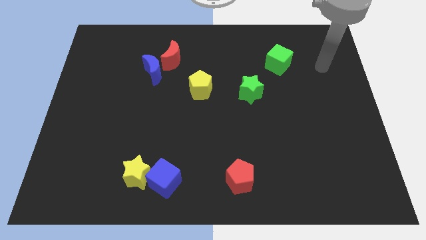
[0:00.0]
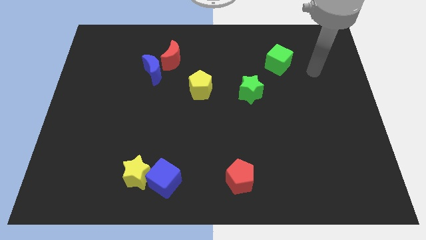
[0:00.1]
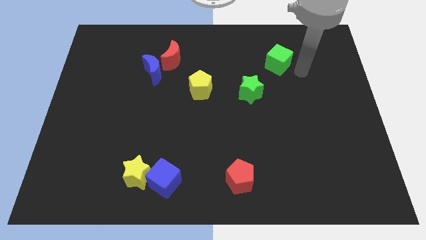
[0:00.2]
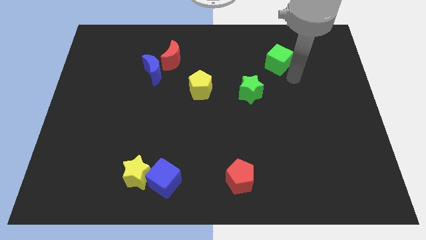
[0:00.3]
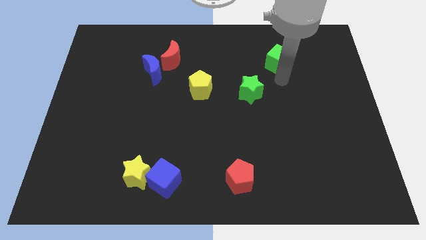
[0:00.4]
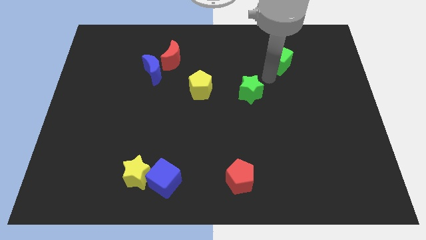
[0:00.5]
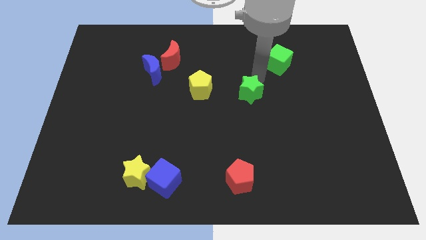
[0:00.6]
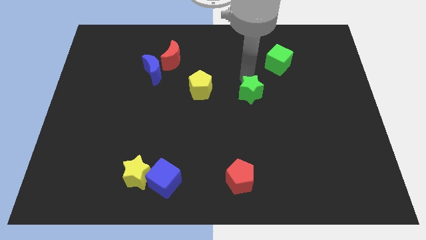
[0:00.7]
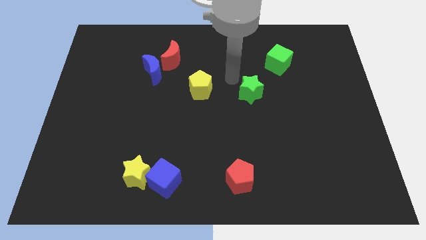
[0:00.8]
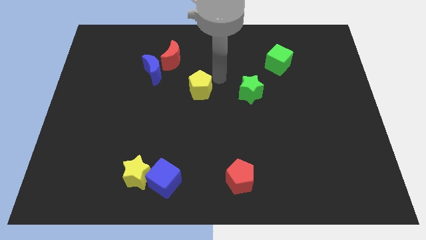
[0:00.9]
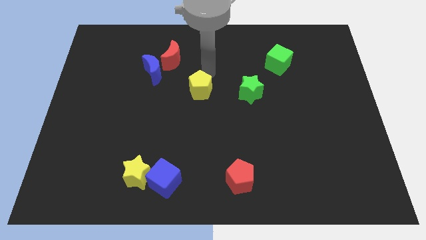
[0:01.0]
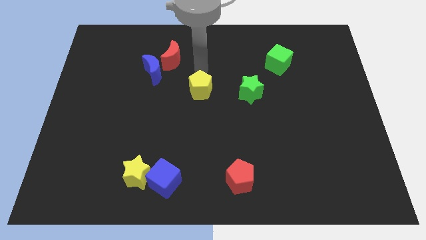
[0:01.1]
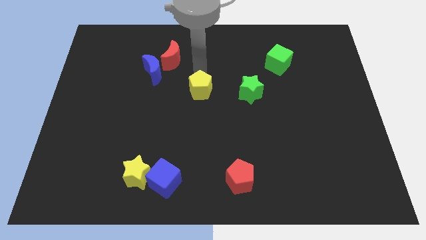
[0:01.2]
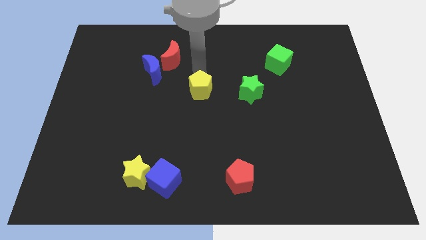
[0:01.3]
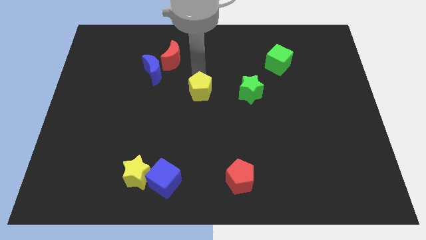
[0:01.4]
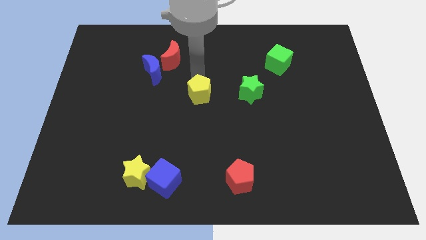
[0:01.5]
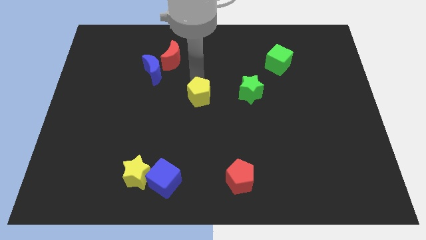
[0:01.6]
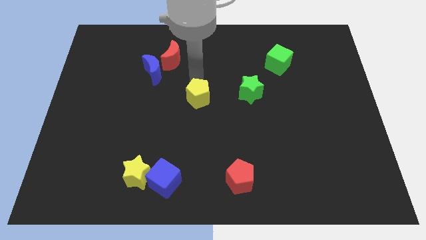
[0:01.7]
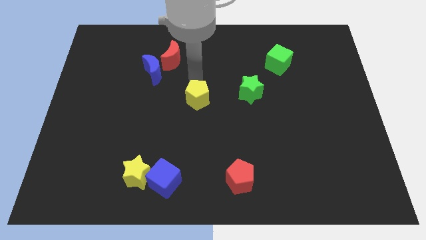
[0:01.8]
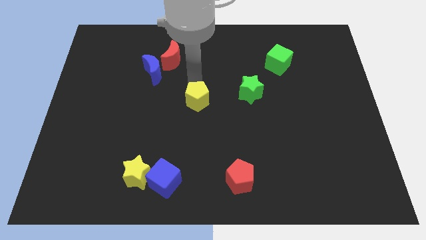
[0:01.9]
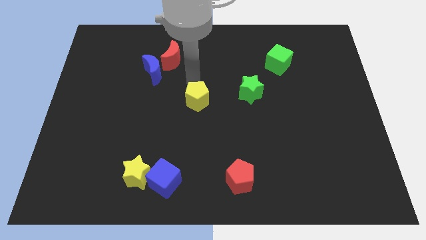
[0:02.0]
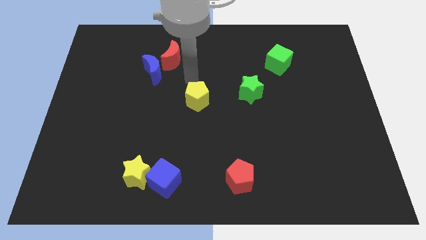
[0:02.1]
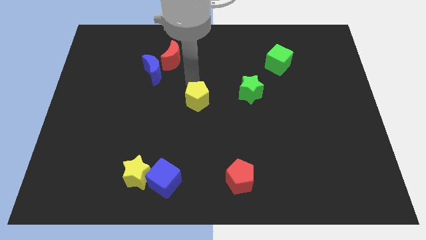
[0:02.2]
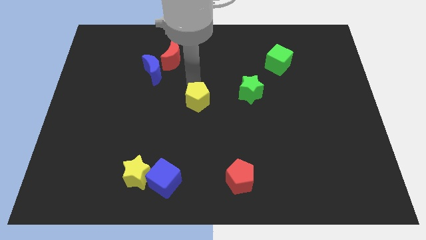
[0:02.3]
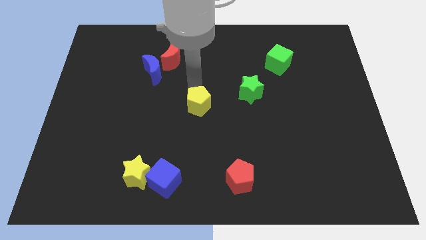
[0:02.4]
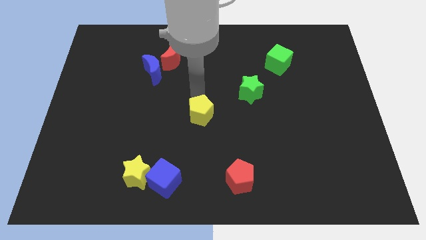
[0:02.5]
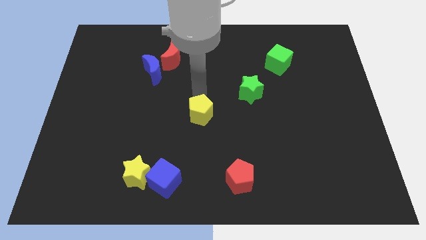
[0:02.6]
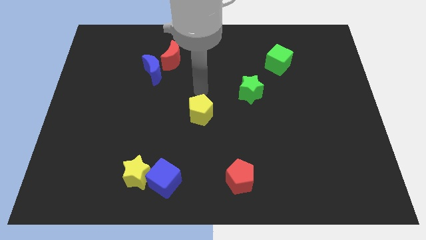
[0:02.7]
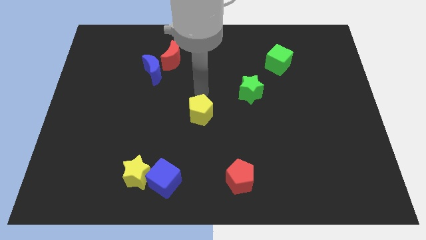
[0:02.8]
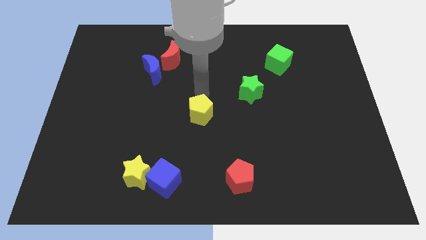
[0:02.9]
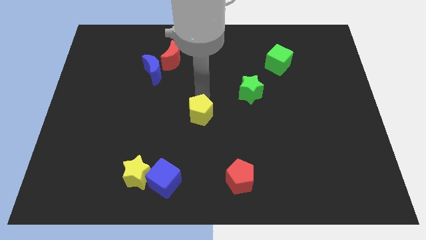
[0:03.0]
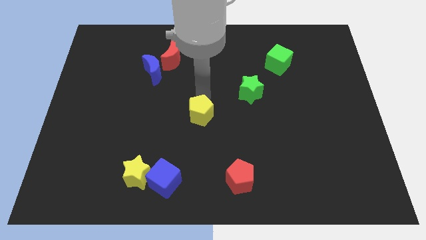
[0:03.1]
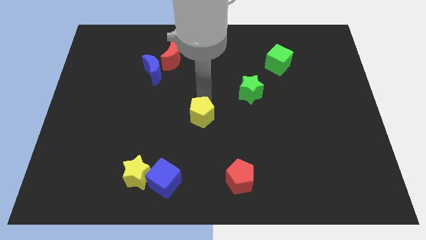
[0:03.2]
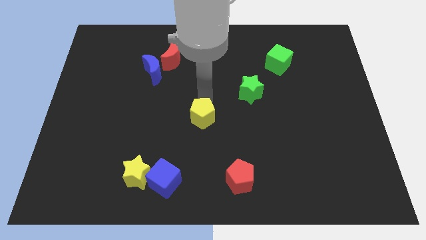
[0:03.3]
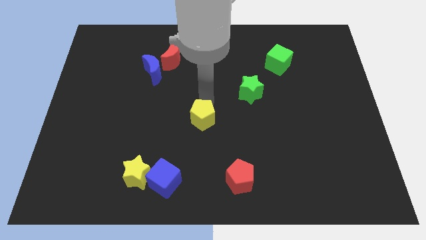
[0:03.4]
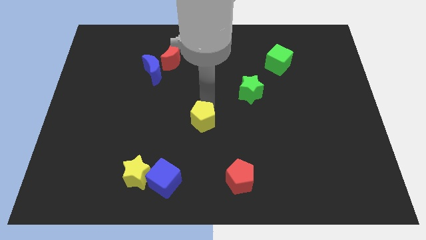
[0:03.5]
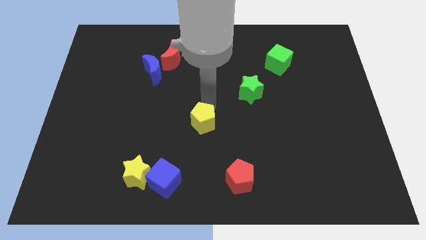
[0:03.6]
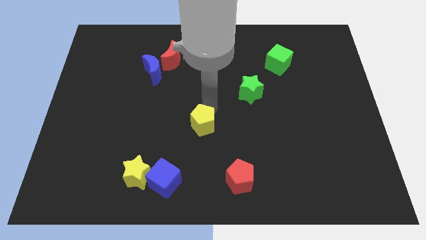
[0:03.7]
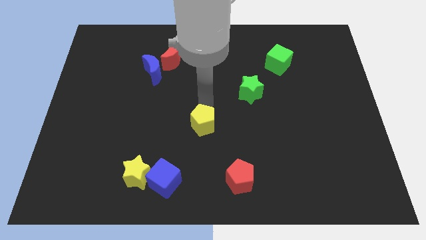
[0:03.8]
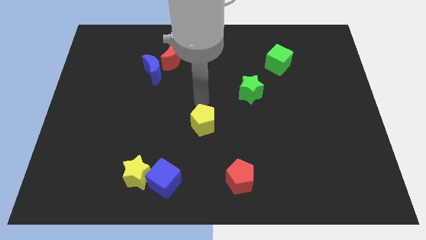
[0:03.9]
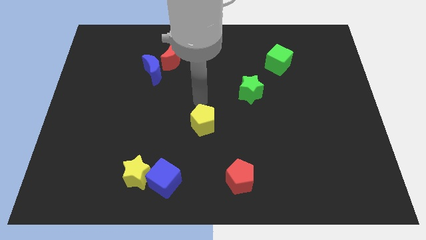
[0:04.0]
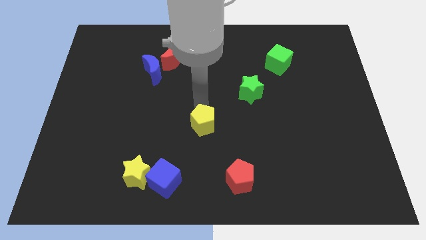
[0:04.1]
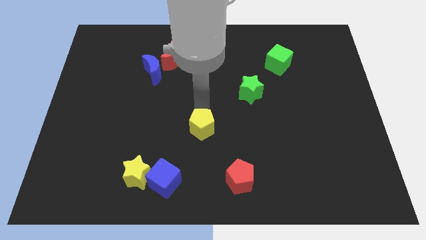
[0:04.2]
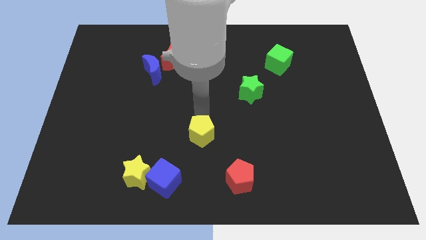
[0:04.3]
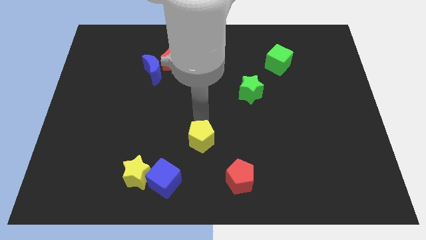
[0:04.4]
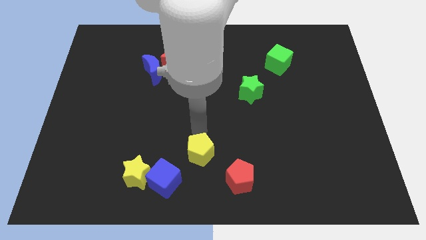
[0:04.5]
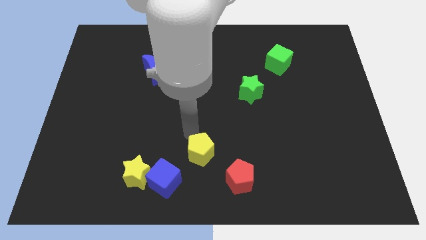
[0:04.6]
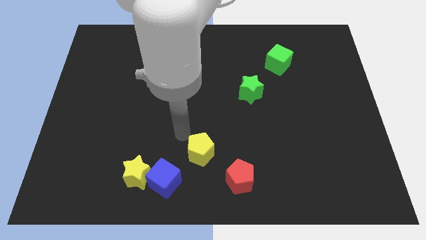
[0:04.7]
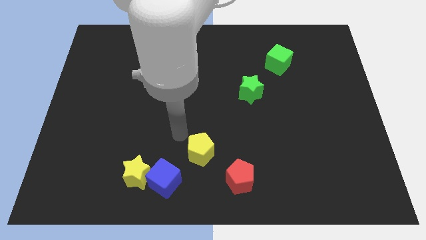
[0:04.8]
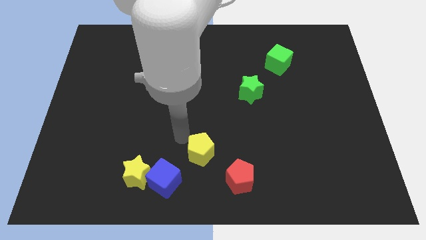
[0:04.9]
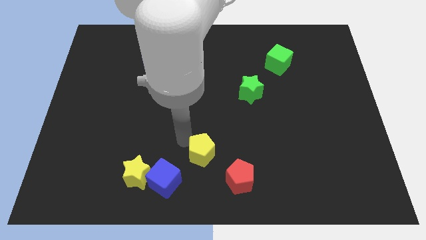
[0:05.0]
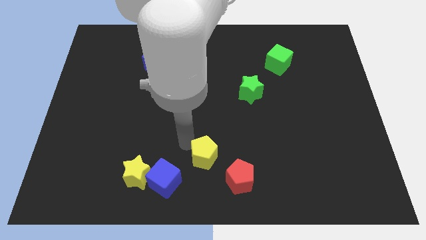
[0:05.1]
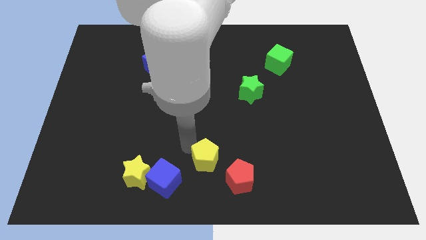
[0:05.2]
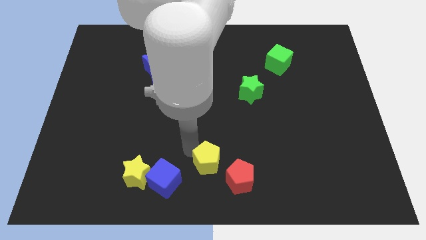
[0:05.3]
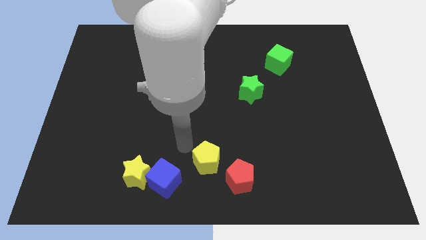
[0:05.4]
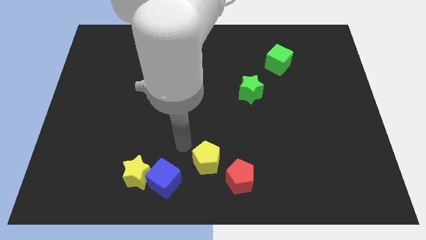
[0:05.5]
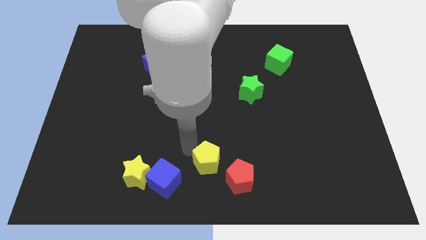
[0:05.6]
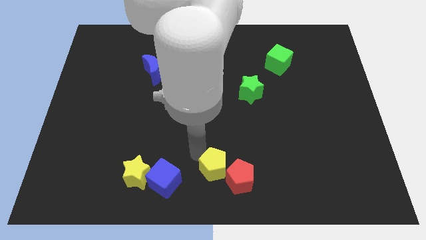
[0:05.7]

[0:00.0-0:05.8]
push the yellow pentagon next to the red pentagon

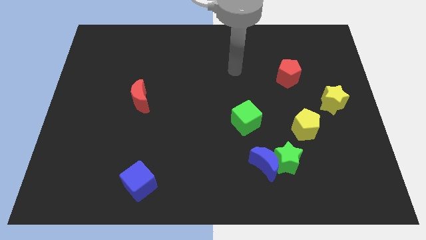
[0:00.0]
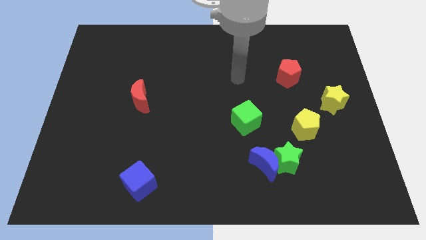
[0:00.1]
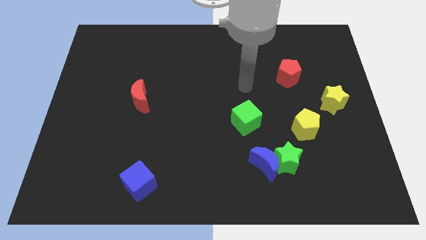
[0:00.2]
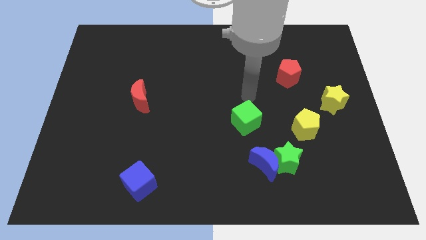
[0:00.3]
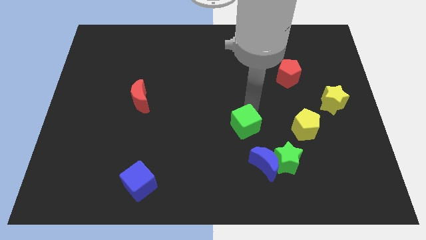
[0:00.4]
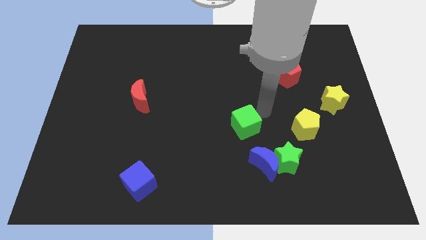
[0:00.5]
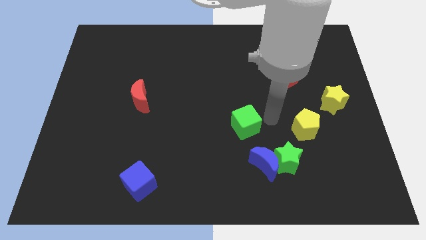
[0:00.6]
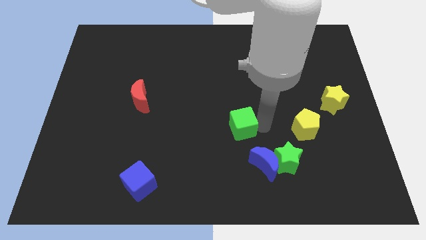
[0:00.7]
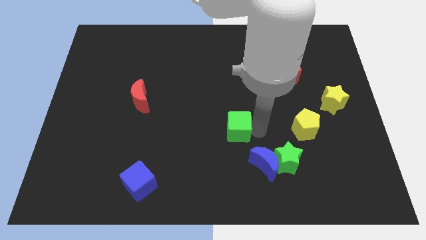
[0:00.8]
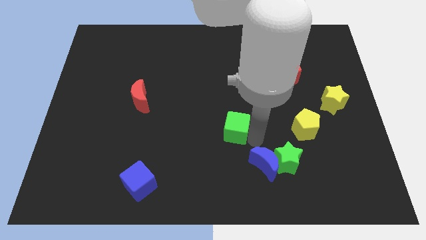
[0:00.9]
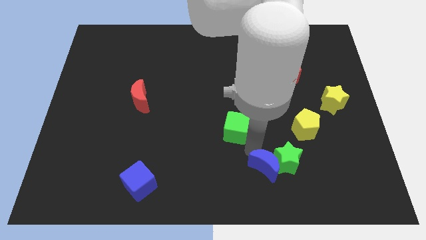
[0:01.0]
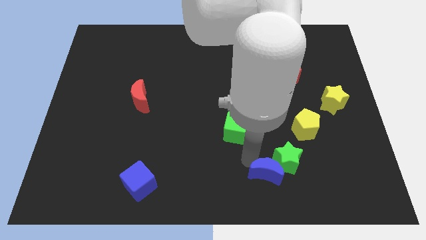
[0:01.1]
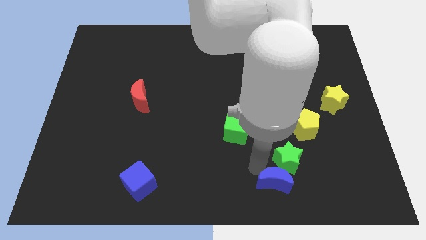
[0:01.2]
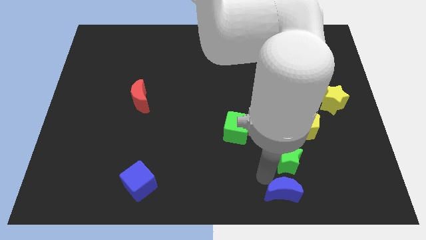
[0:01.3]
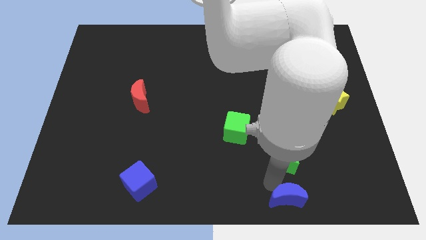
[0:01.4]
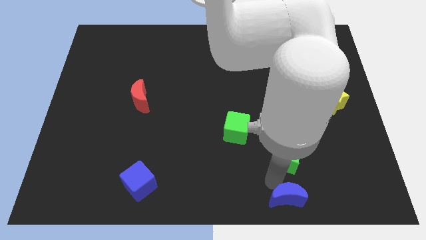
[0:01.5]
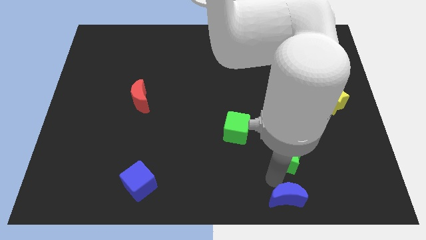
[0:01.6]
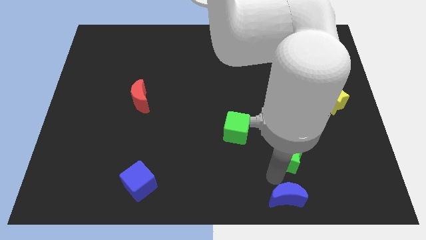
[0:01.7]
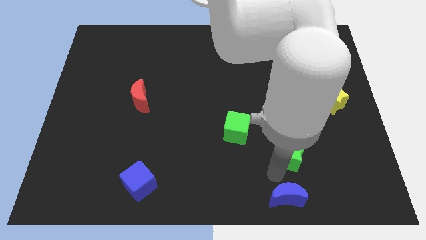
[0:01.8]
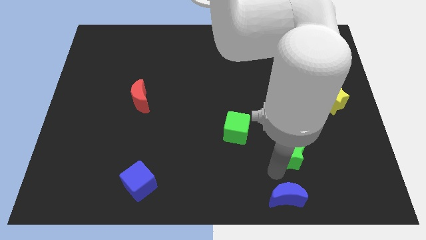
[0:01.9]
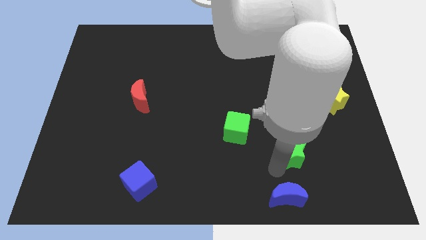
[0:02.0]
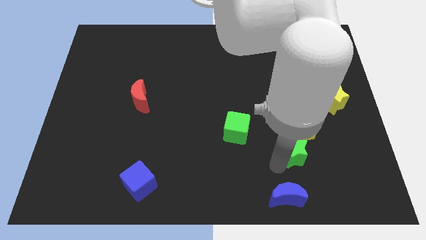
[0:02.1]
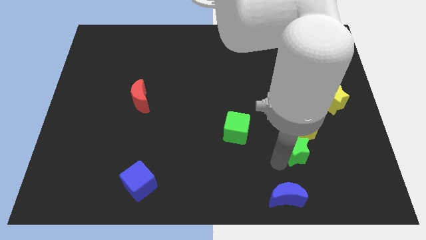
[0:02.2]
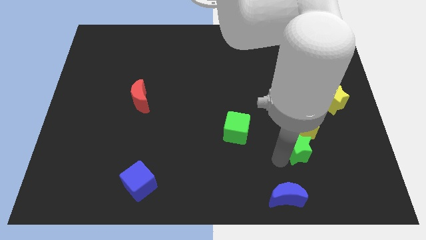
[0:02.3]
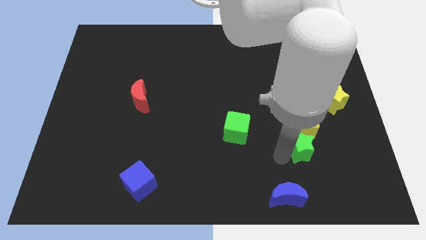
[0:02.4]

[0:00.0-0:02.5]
put the green star next to the yellow pentagon
